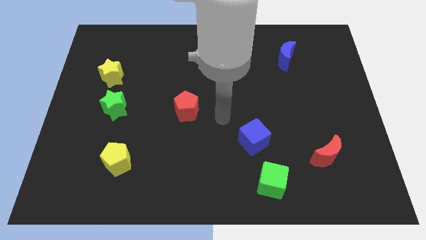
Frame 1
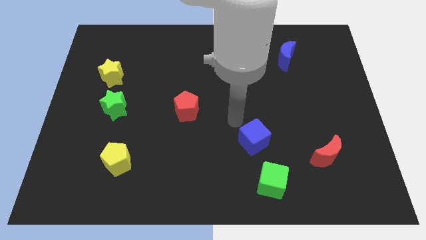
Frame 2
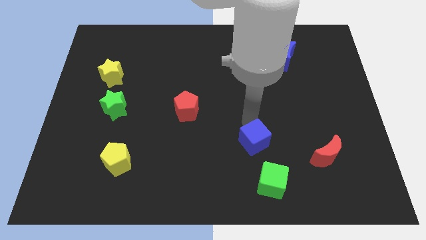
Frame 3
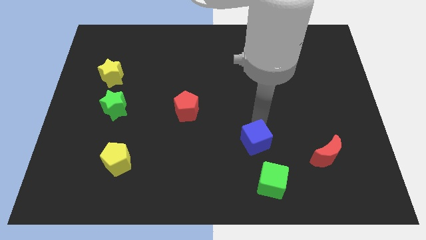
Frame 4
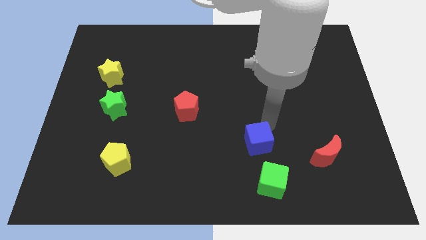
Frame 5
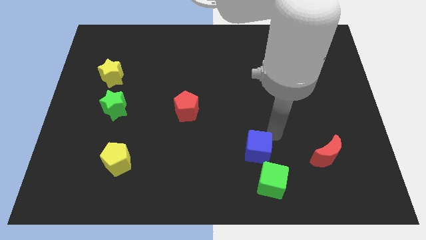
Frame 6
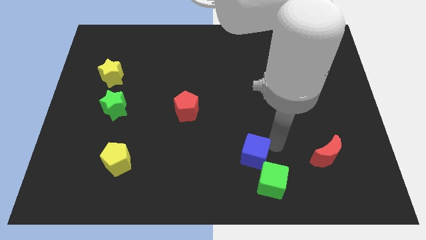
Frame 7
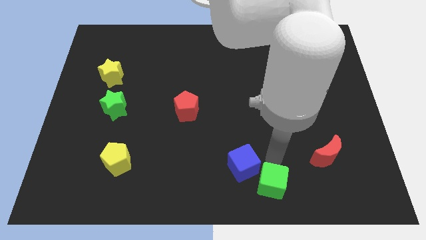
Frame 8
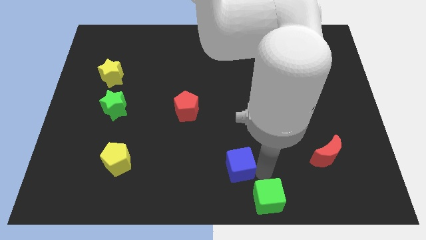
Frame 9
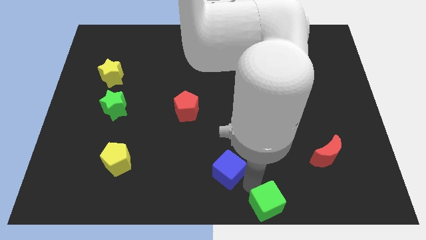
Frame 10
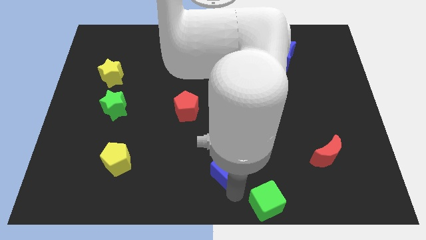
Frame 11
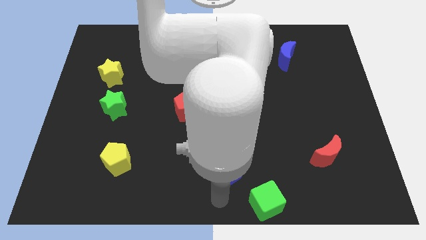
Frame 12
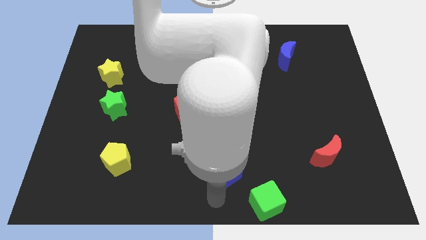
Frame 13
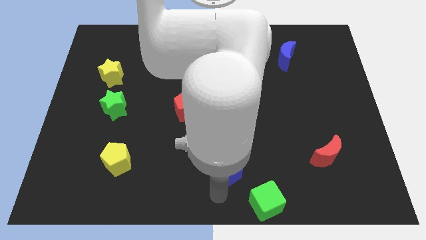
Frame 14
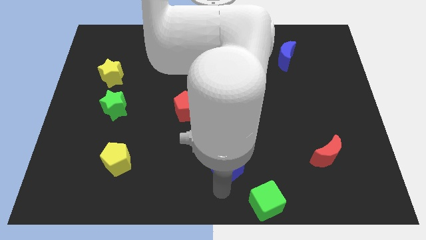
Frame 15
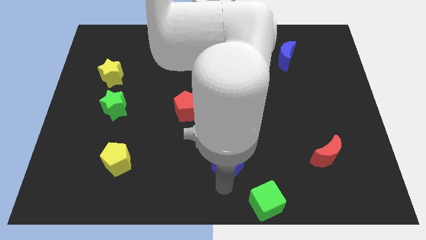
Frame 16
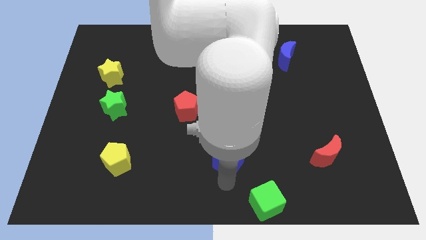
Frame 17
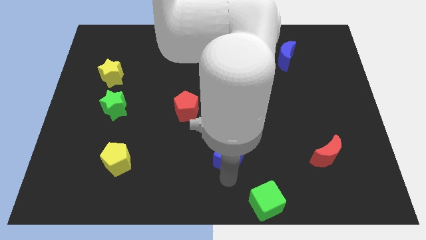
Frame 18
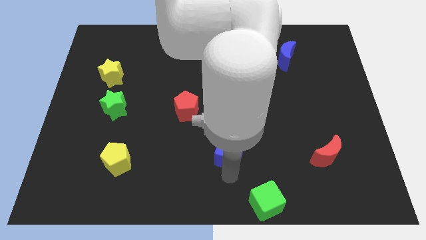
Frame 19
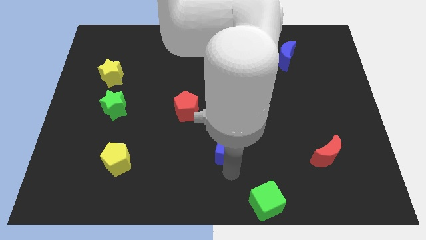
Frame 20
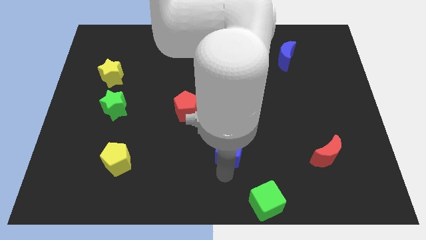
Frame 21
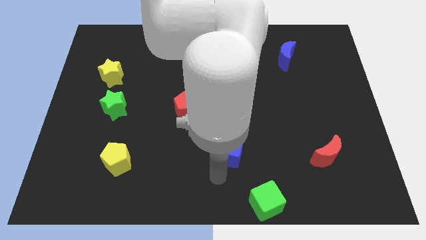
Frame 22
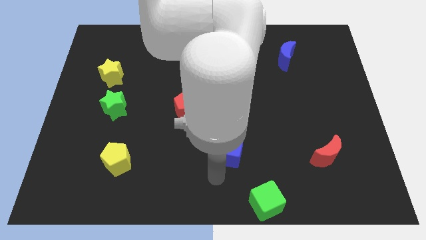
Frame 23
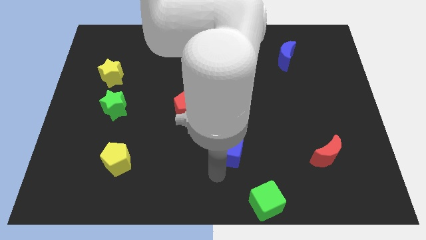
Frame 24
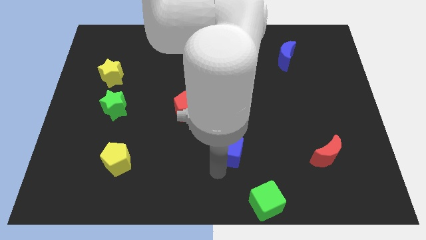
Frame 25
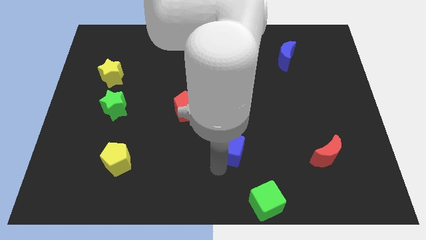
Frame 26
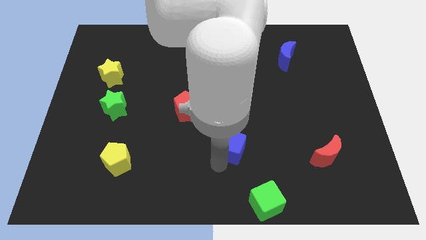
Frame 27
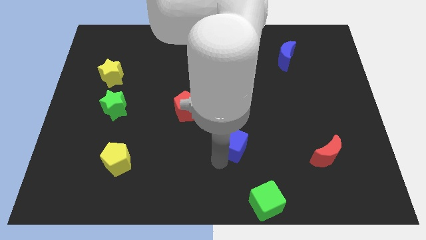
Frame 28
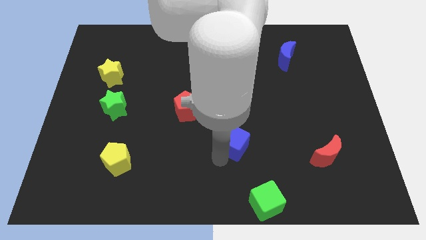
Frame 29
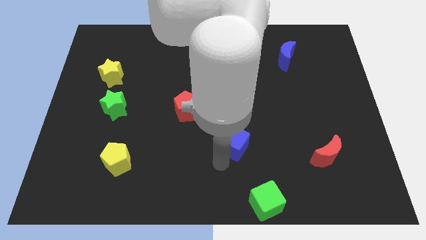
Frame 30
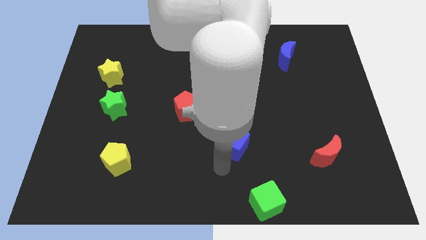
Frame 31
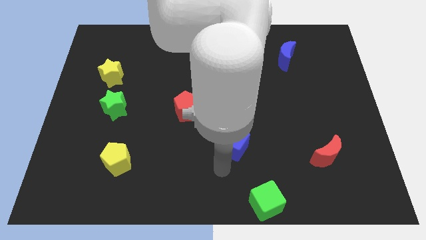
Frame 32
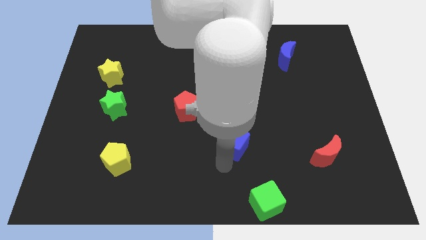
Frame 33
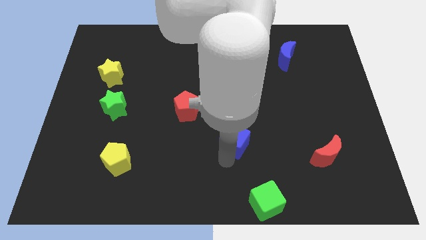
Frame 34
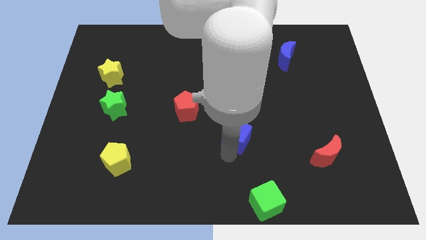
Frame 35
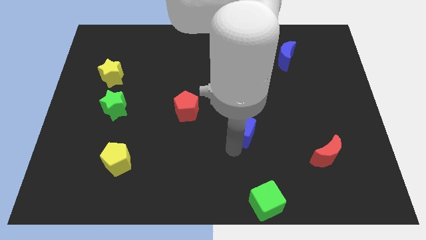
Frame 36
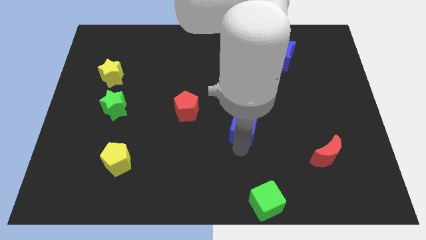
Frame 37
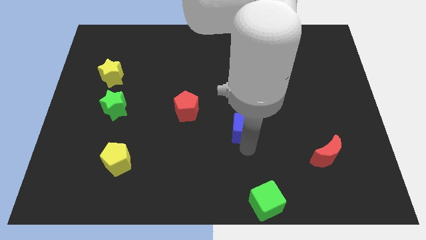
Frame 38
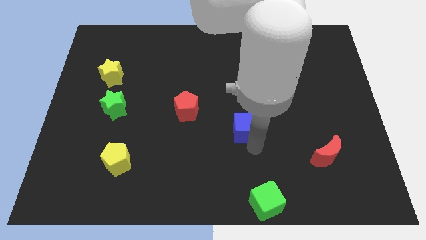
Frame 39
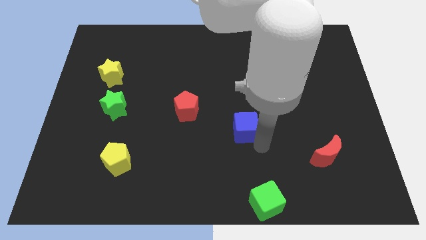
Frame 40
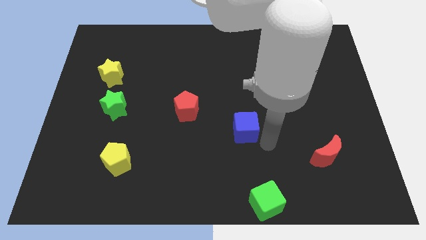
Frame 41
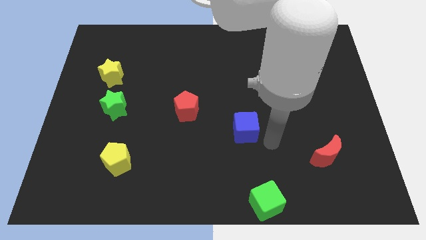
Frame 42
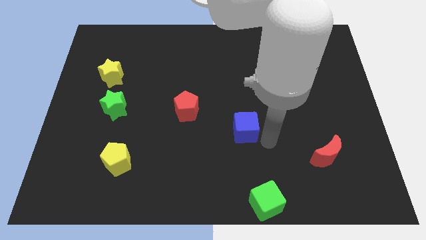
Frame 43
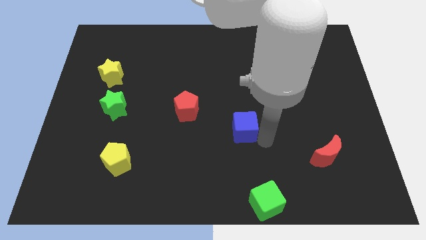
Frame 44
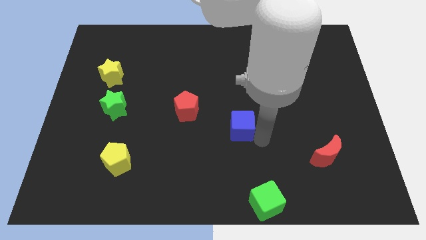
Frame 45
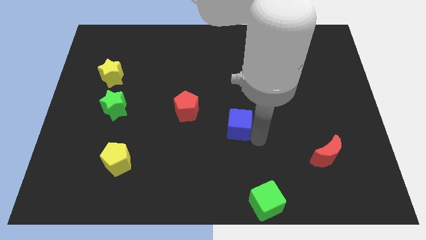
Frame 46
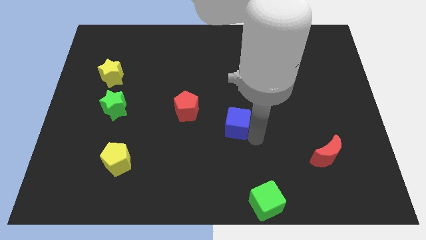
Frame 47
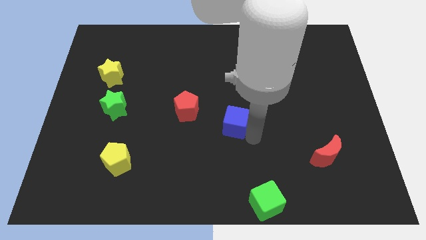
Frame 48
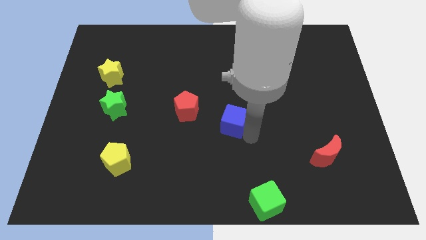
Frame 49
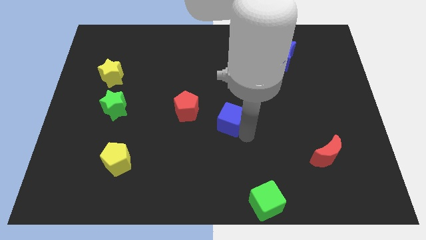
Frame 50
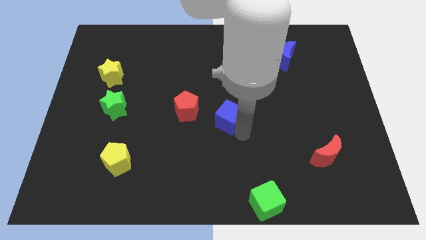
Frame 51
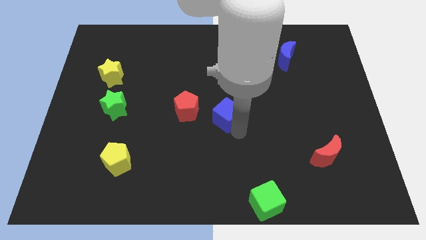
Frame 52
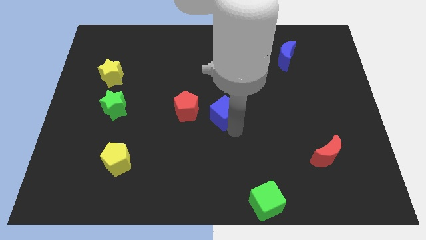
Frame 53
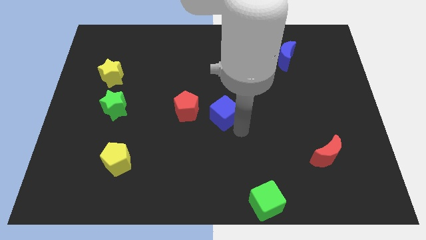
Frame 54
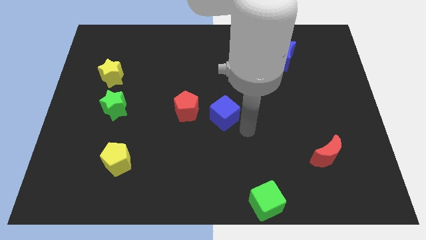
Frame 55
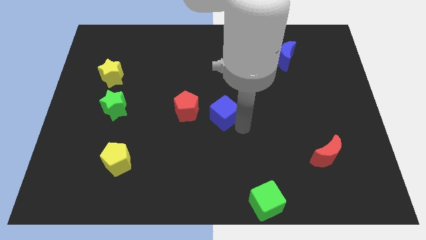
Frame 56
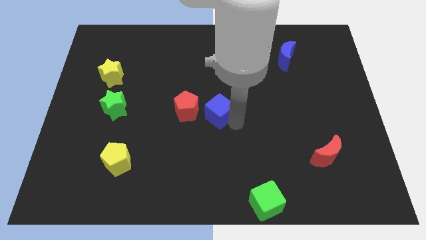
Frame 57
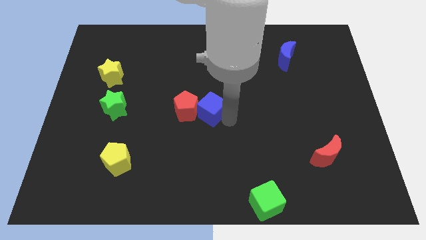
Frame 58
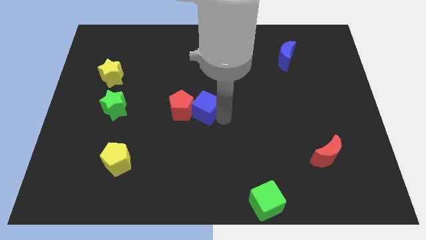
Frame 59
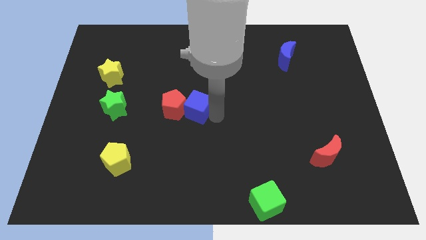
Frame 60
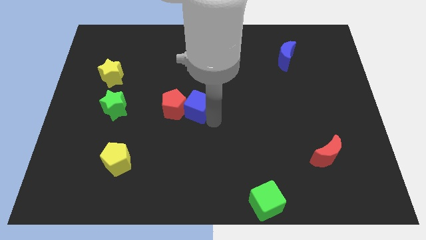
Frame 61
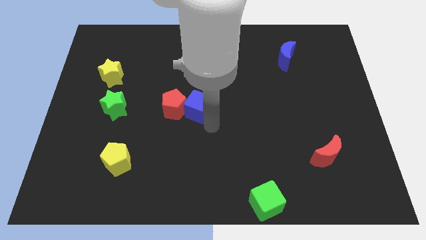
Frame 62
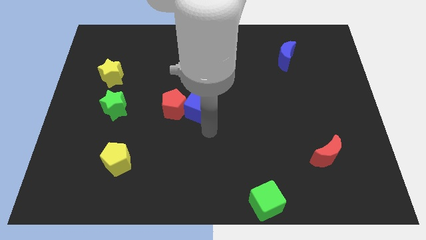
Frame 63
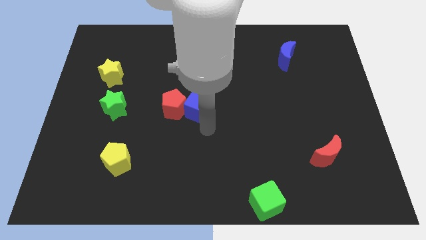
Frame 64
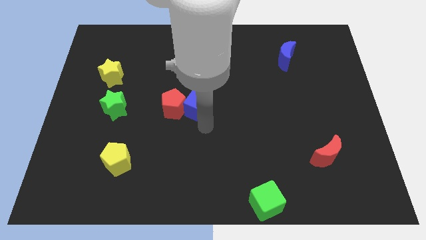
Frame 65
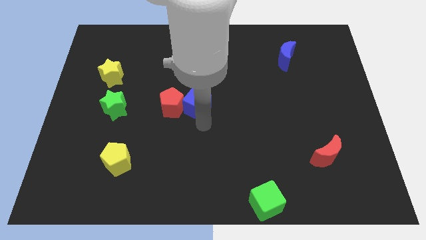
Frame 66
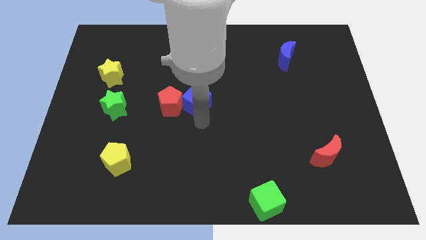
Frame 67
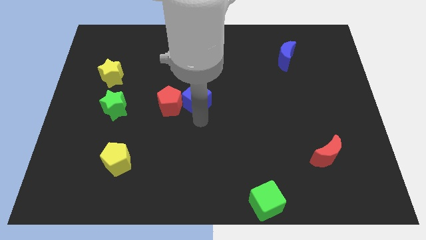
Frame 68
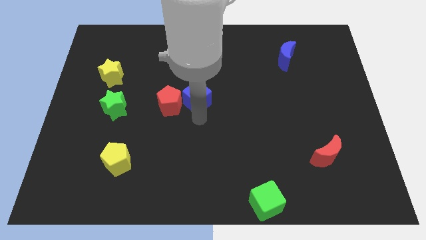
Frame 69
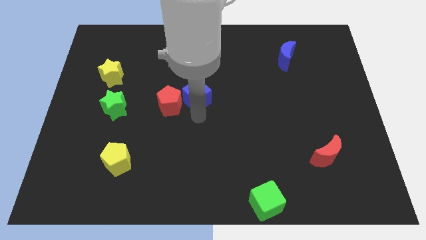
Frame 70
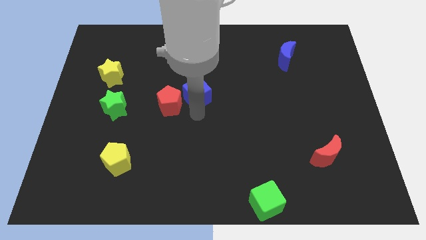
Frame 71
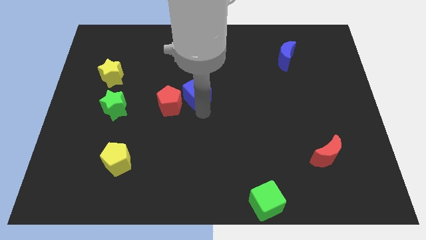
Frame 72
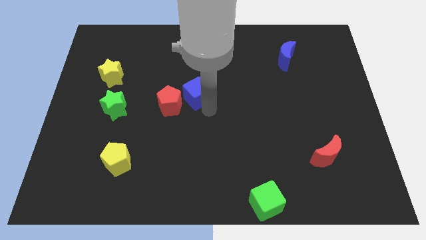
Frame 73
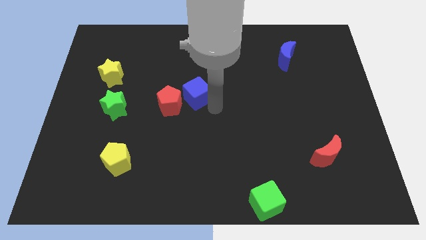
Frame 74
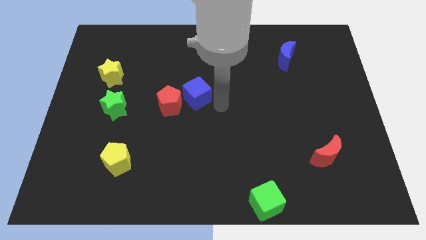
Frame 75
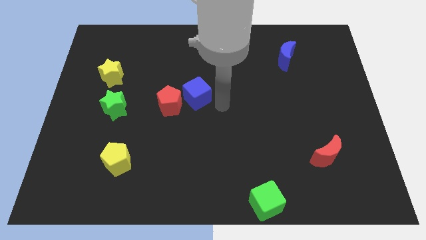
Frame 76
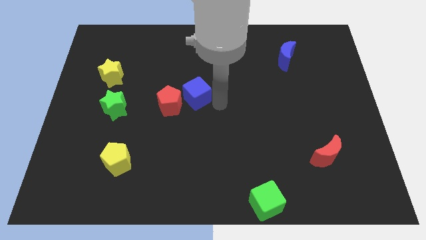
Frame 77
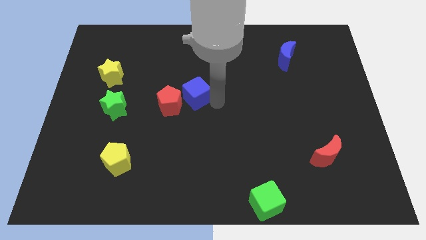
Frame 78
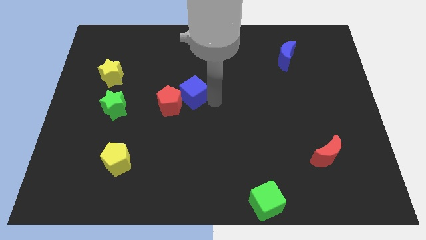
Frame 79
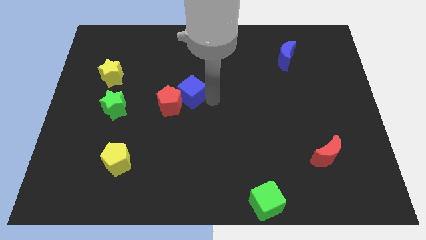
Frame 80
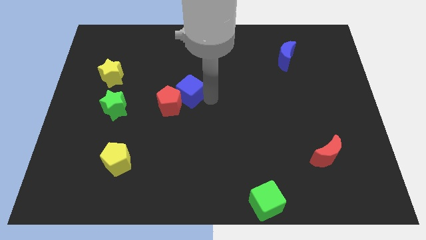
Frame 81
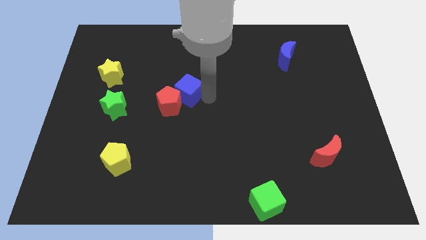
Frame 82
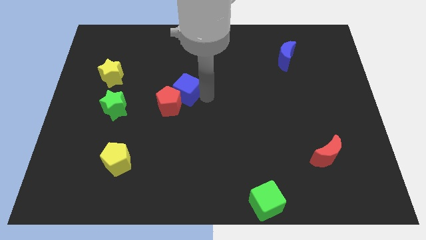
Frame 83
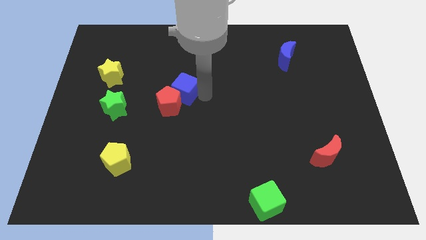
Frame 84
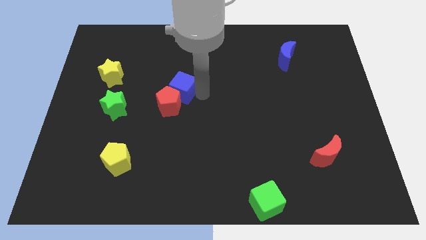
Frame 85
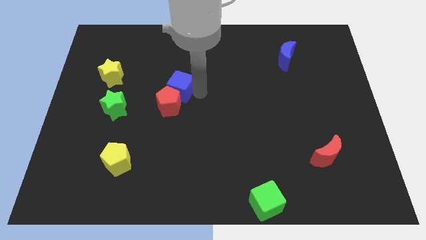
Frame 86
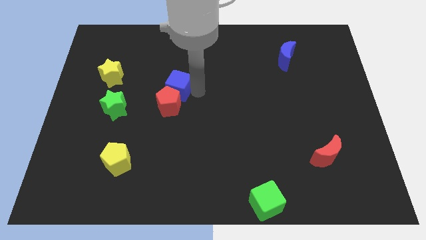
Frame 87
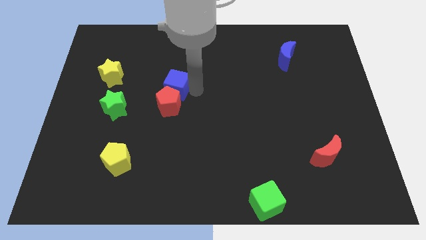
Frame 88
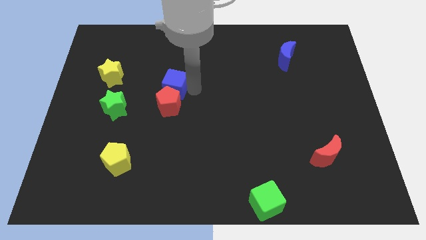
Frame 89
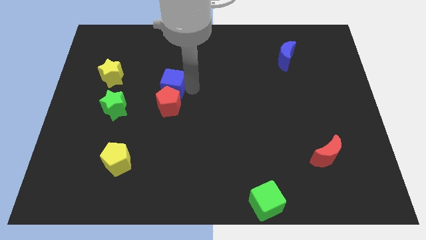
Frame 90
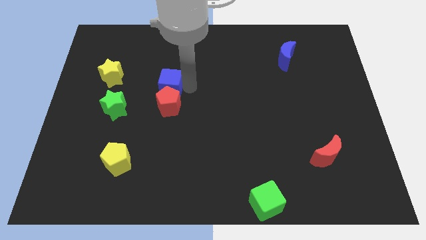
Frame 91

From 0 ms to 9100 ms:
move the blue cube to the right of the yellow star
